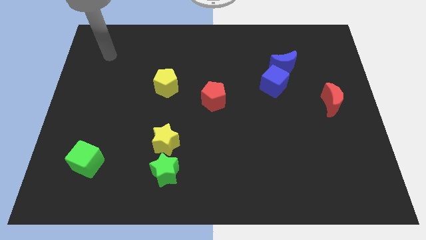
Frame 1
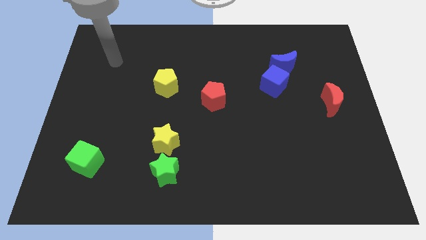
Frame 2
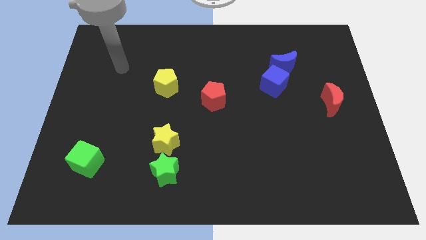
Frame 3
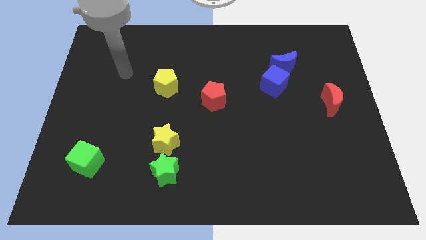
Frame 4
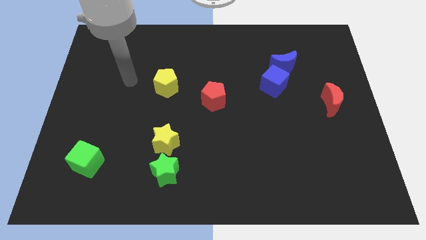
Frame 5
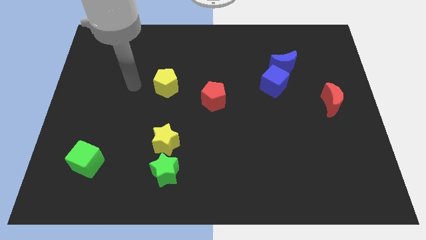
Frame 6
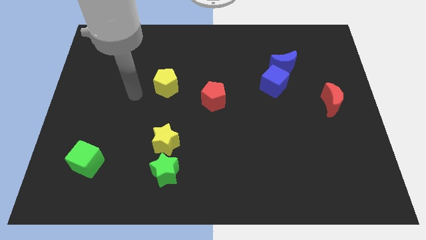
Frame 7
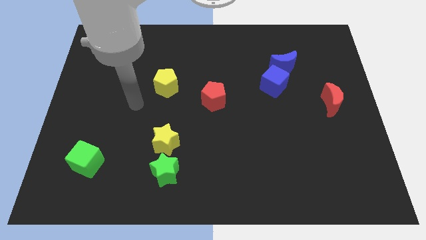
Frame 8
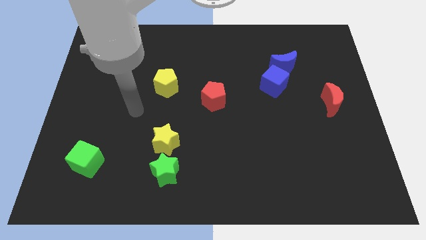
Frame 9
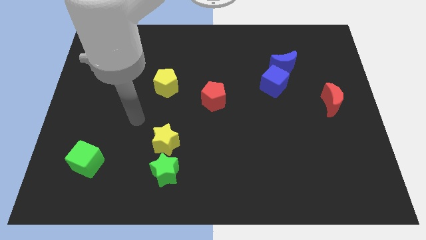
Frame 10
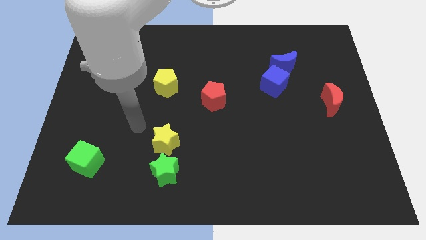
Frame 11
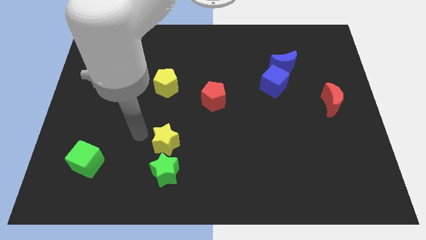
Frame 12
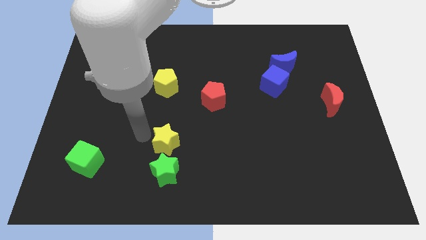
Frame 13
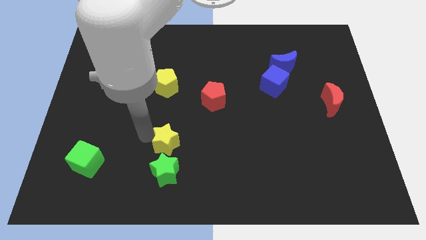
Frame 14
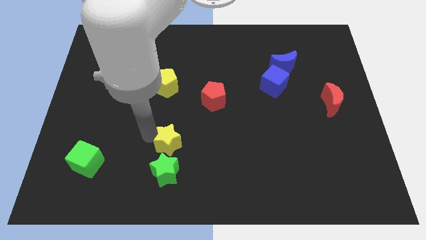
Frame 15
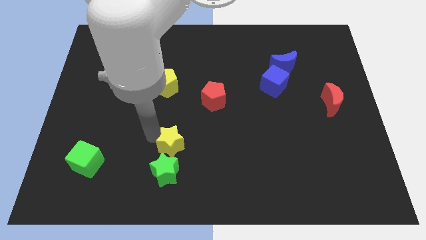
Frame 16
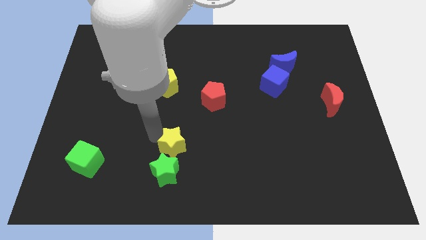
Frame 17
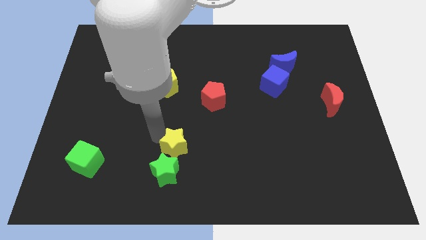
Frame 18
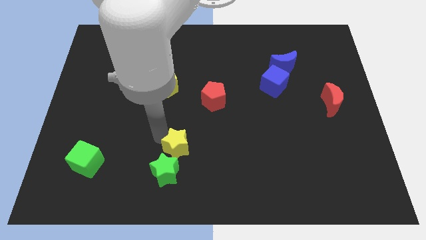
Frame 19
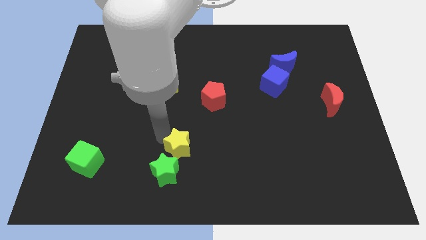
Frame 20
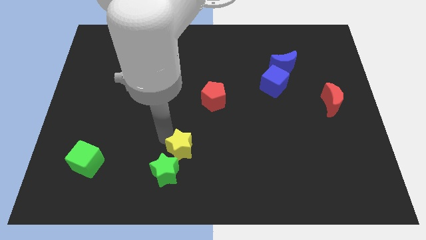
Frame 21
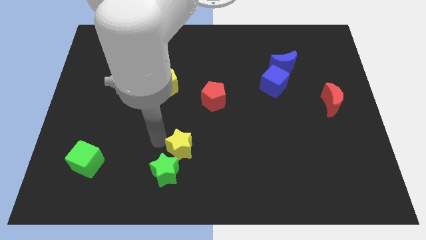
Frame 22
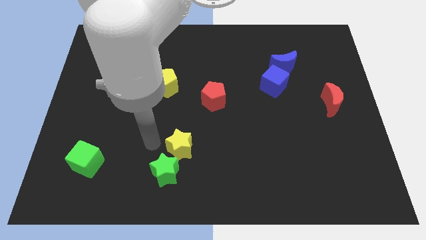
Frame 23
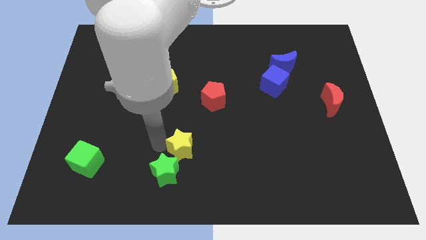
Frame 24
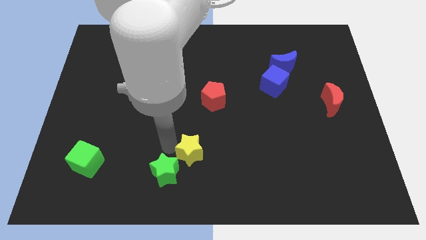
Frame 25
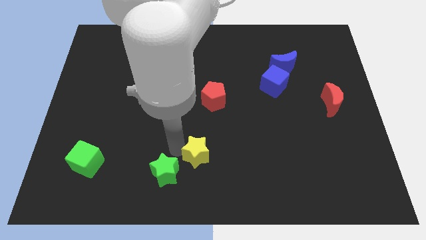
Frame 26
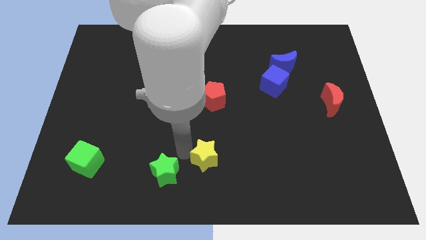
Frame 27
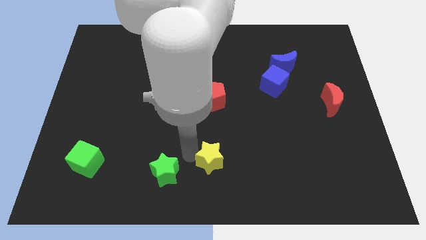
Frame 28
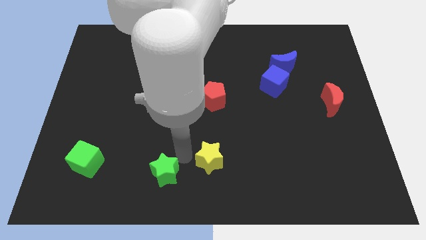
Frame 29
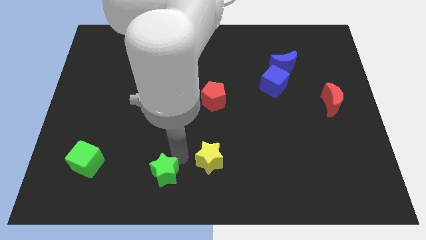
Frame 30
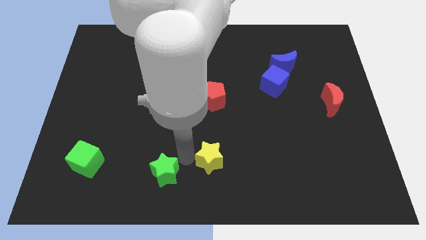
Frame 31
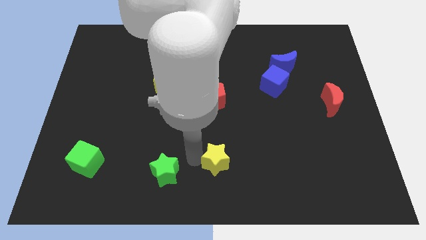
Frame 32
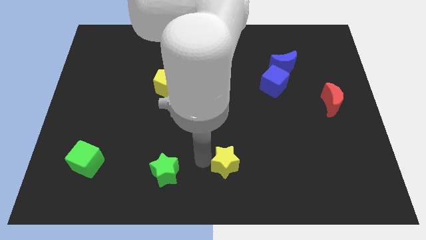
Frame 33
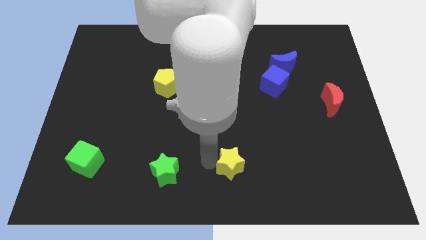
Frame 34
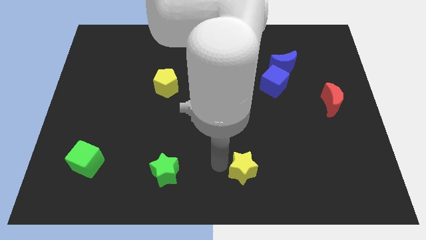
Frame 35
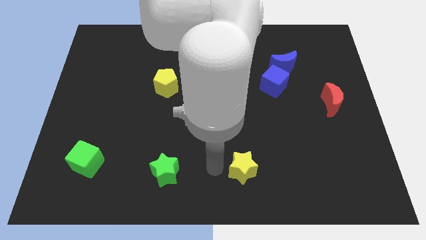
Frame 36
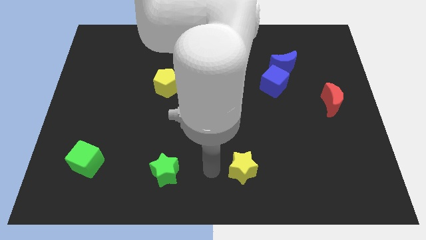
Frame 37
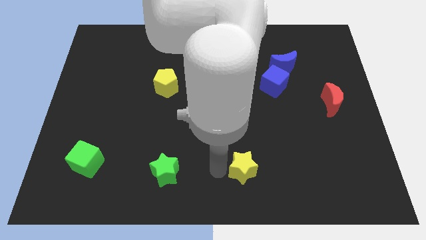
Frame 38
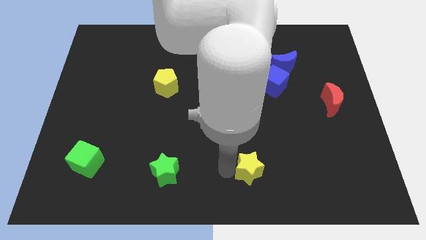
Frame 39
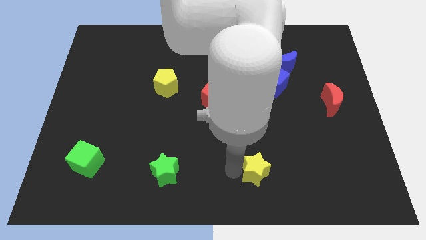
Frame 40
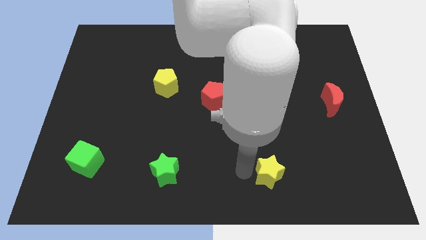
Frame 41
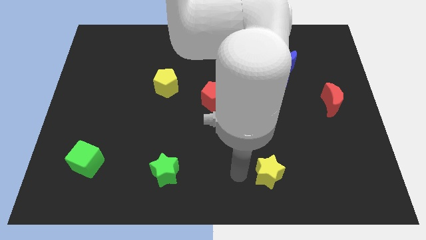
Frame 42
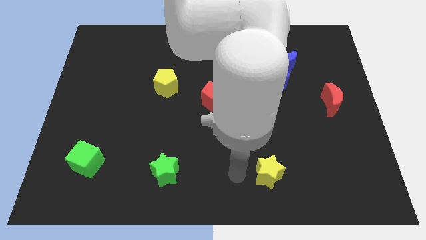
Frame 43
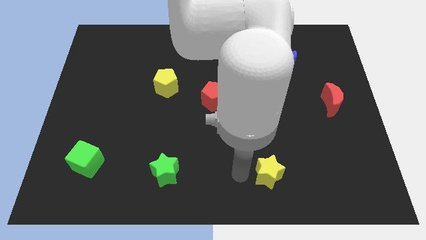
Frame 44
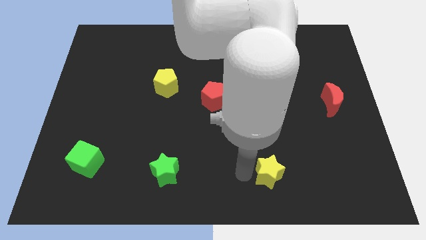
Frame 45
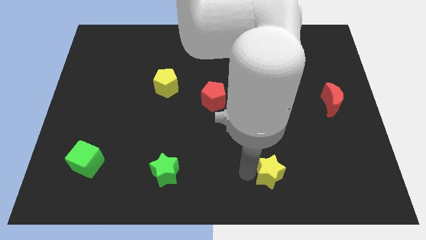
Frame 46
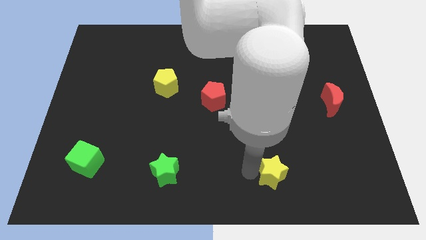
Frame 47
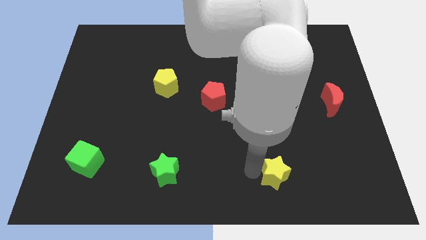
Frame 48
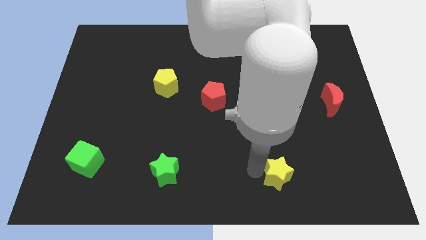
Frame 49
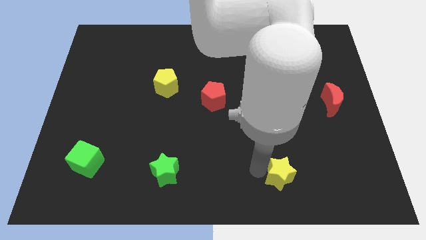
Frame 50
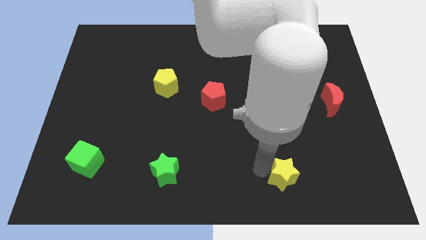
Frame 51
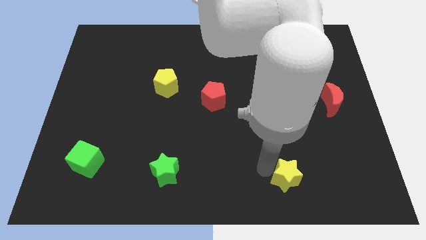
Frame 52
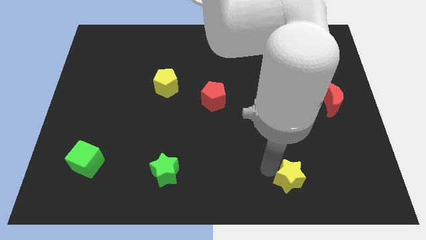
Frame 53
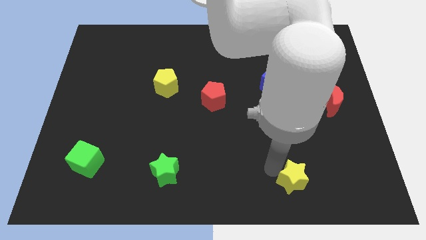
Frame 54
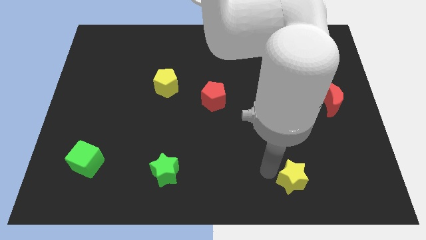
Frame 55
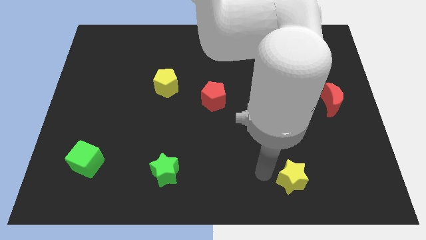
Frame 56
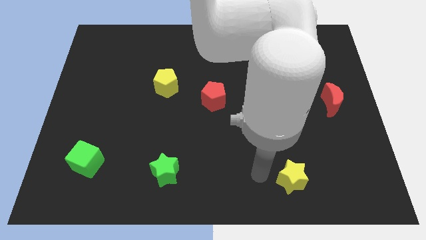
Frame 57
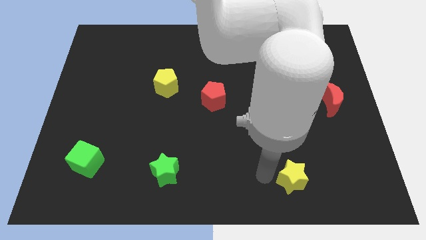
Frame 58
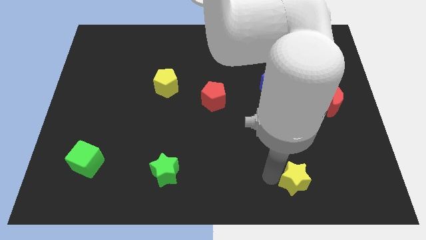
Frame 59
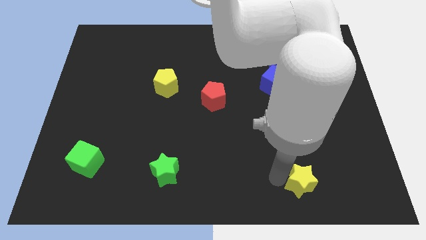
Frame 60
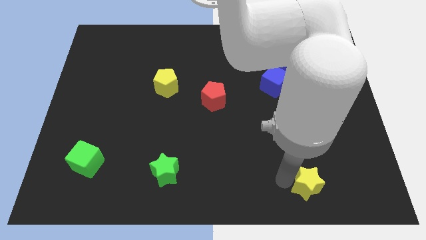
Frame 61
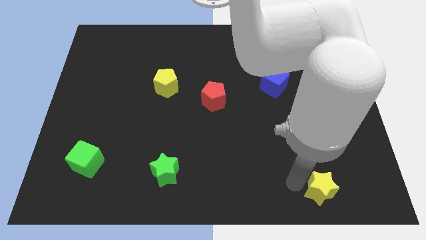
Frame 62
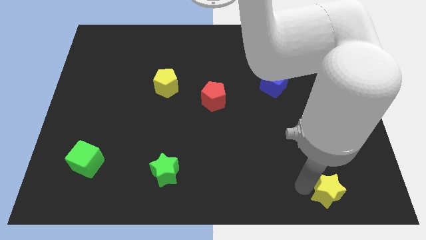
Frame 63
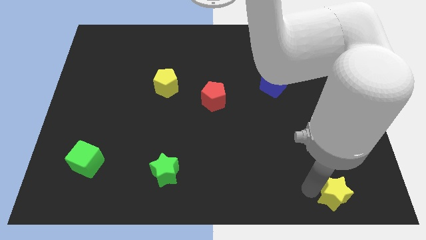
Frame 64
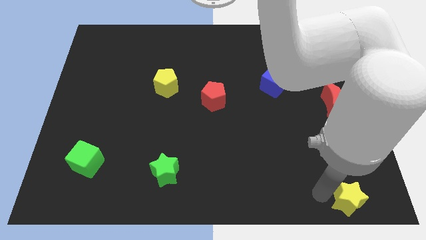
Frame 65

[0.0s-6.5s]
put the yellow star to the lower right corner

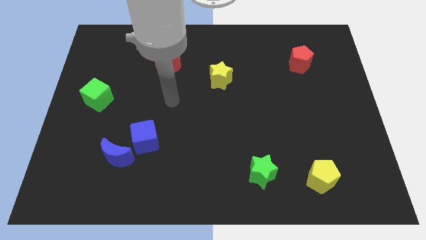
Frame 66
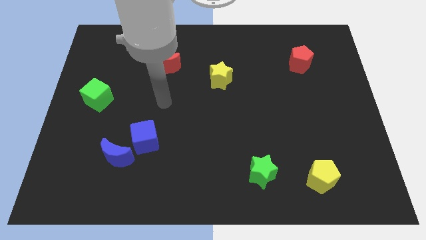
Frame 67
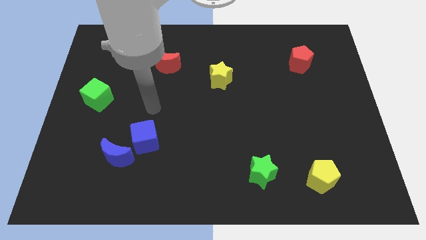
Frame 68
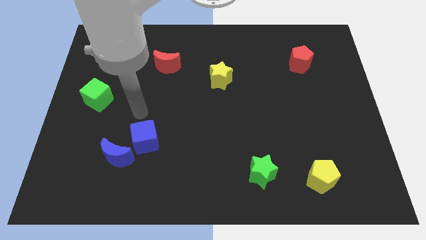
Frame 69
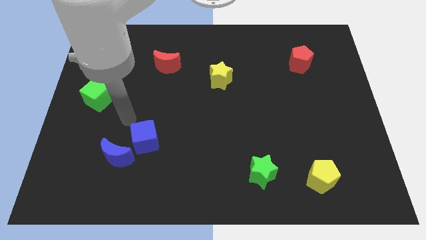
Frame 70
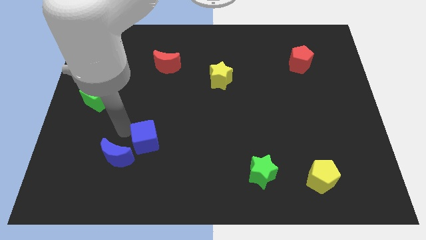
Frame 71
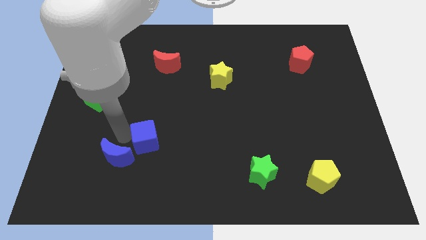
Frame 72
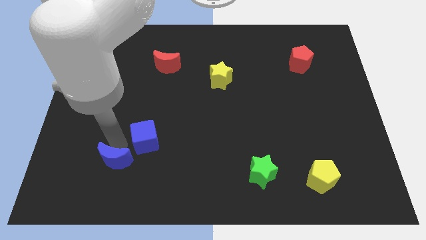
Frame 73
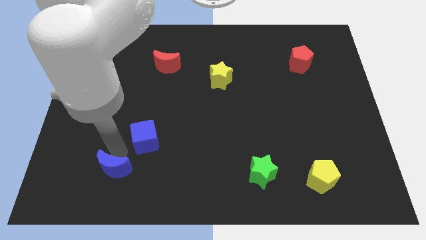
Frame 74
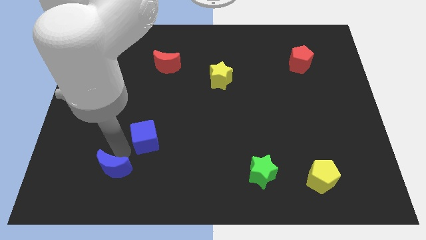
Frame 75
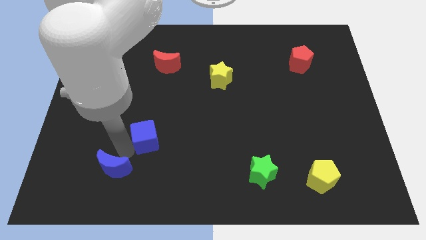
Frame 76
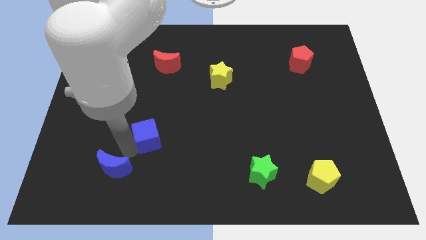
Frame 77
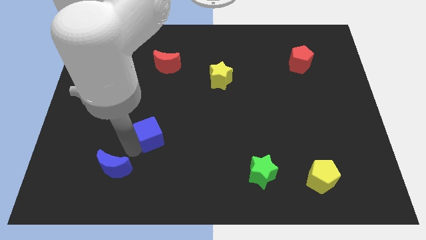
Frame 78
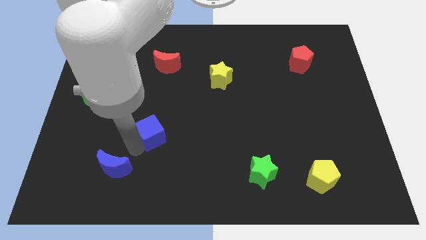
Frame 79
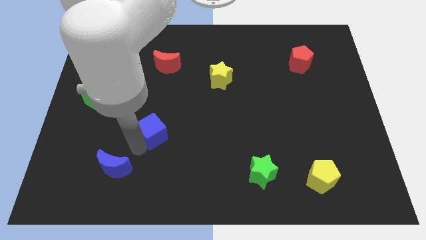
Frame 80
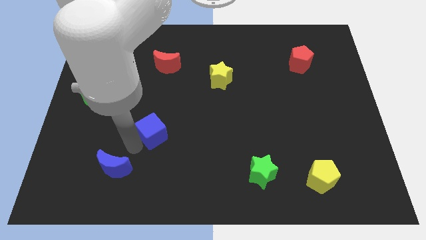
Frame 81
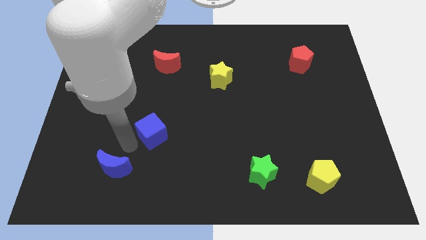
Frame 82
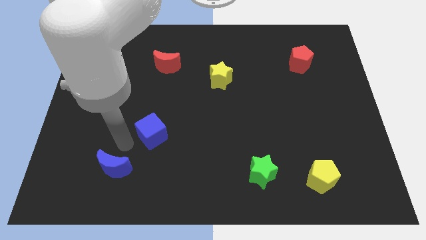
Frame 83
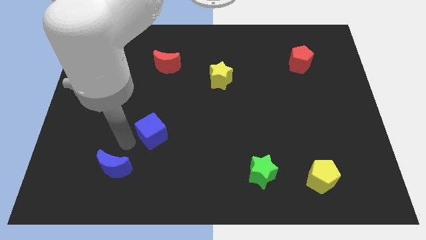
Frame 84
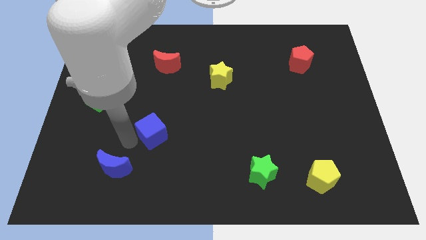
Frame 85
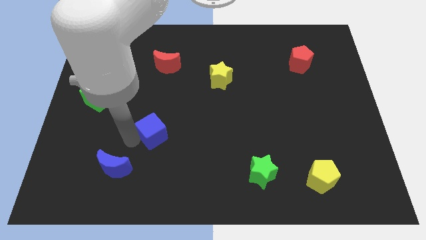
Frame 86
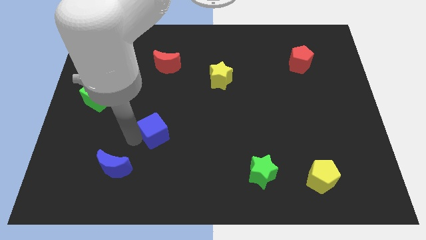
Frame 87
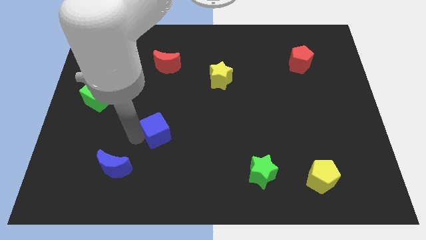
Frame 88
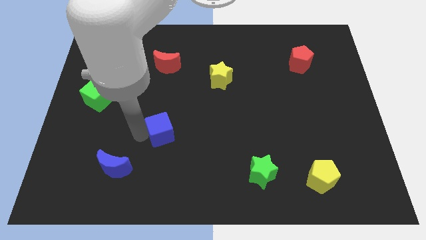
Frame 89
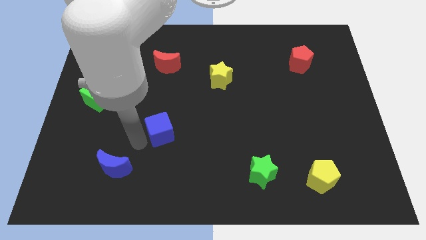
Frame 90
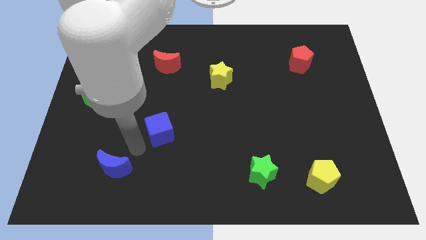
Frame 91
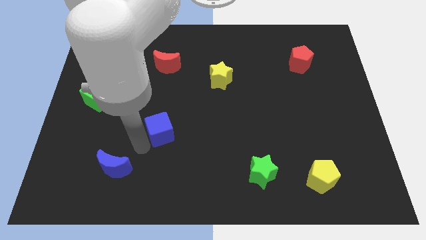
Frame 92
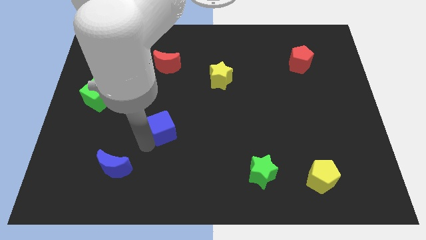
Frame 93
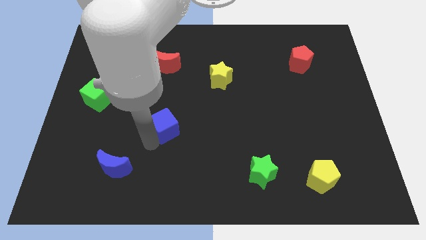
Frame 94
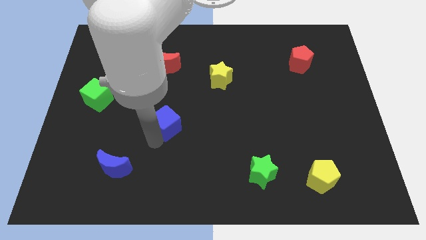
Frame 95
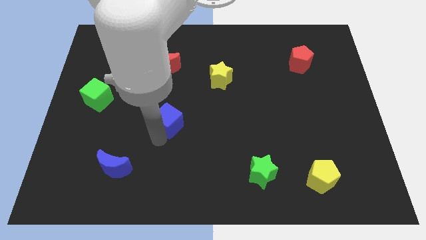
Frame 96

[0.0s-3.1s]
put the blue cube to the middle
